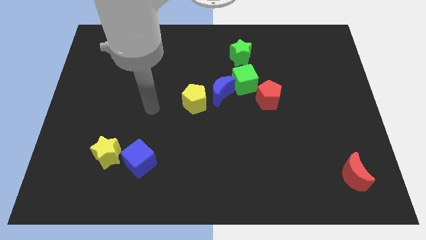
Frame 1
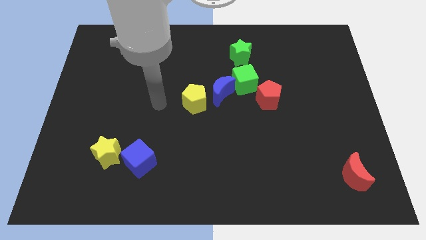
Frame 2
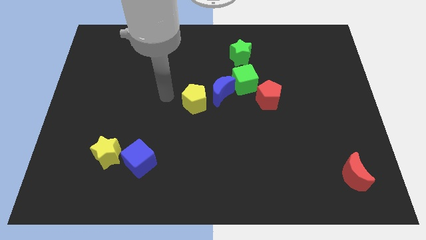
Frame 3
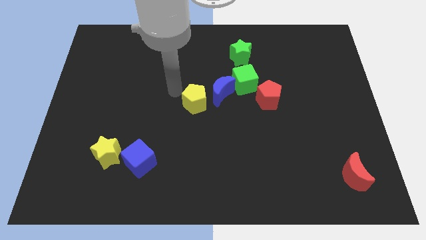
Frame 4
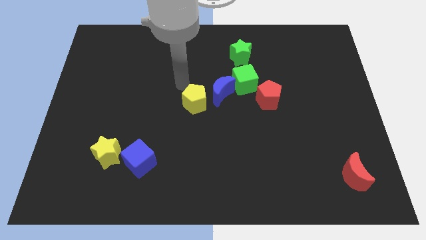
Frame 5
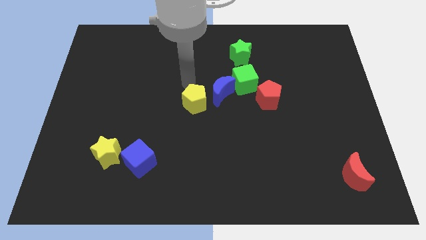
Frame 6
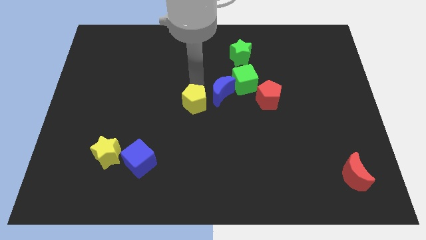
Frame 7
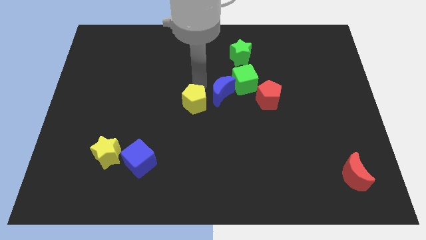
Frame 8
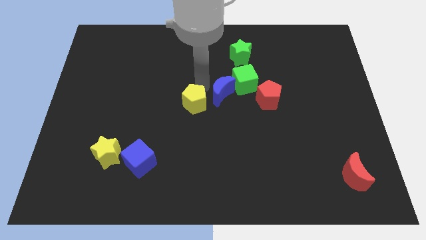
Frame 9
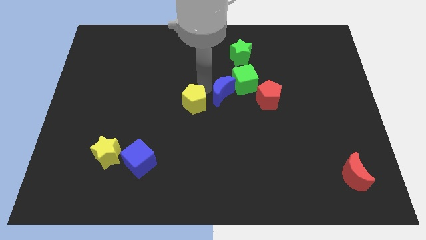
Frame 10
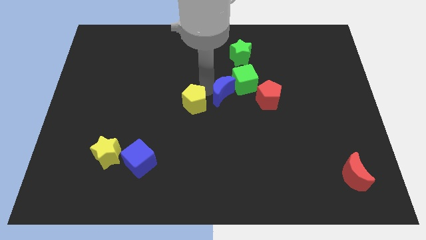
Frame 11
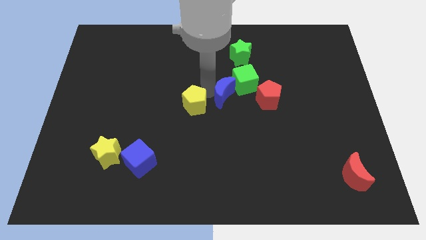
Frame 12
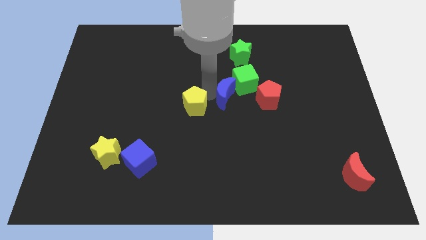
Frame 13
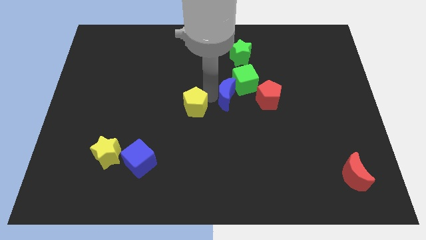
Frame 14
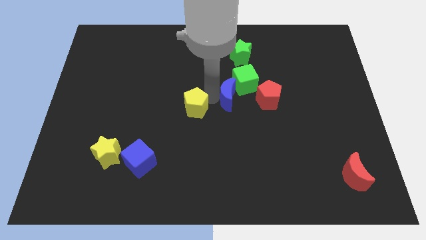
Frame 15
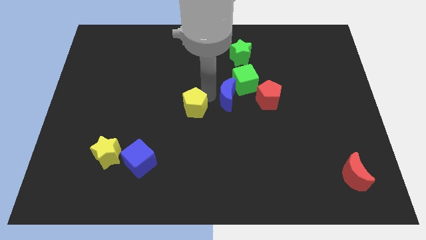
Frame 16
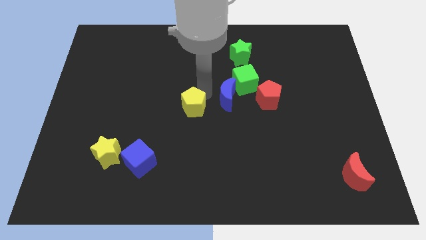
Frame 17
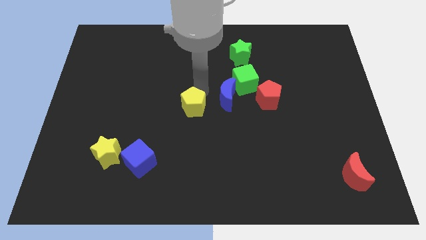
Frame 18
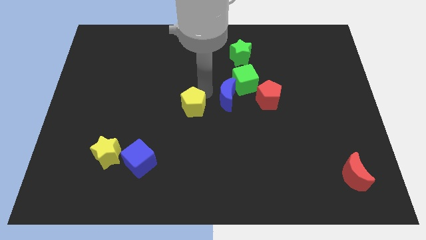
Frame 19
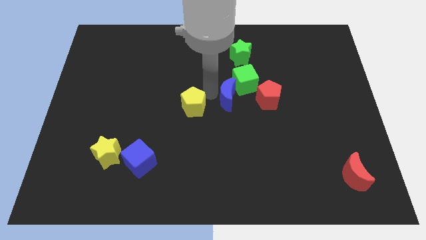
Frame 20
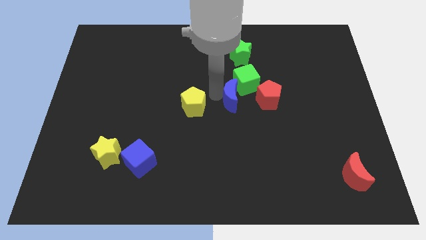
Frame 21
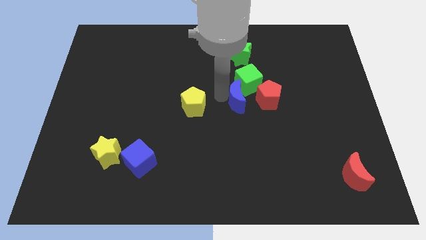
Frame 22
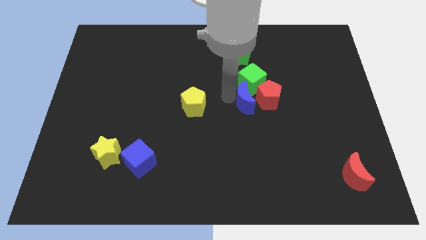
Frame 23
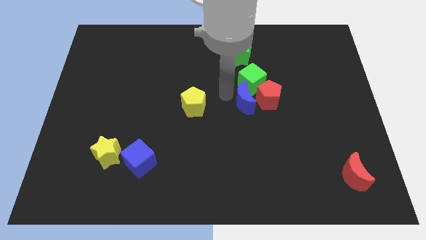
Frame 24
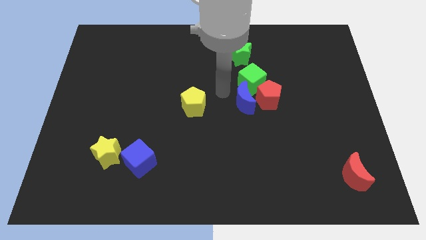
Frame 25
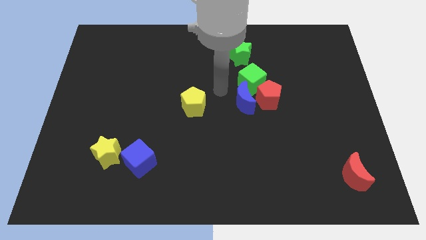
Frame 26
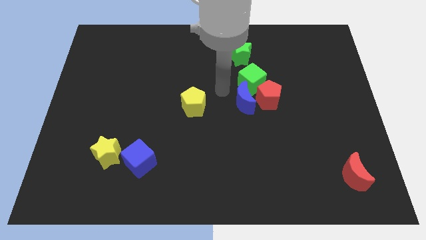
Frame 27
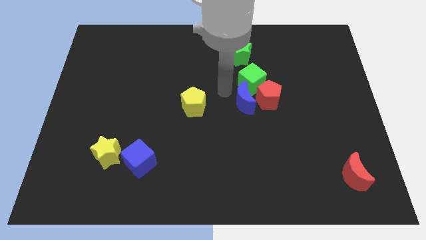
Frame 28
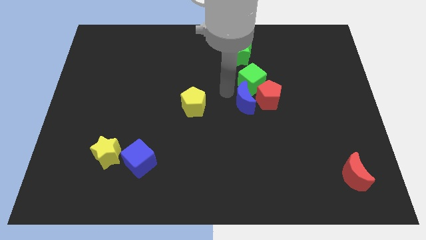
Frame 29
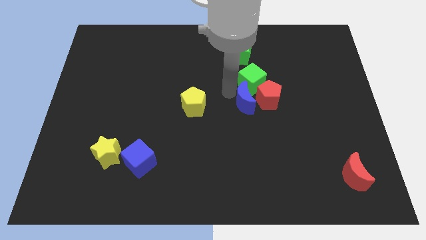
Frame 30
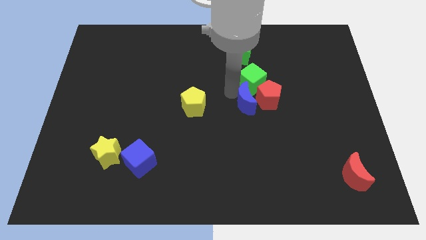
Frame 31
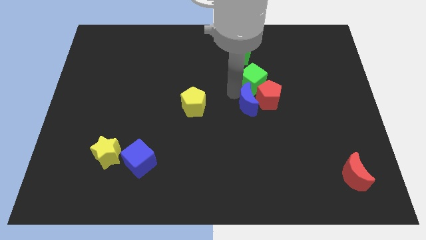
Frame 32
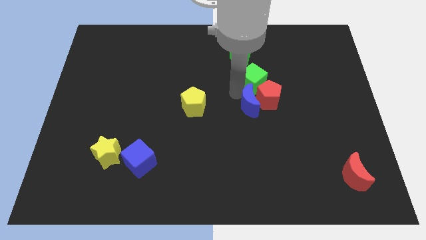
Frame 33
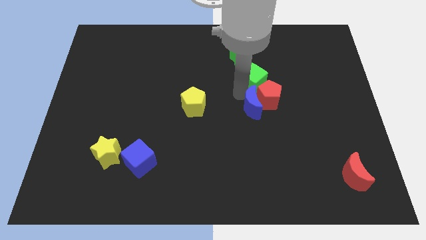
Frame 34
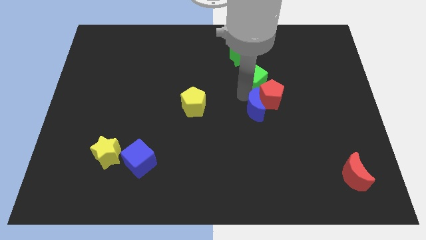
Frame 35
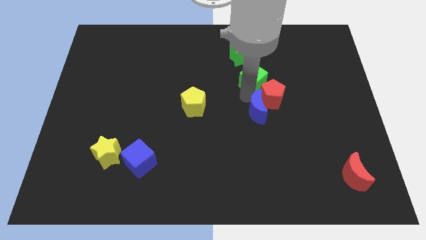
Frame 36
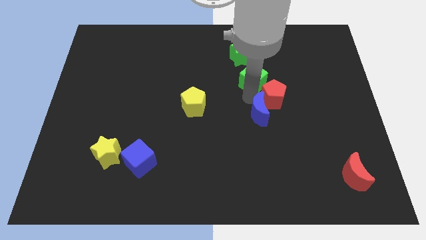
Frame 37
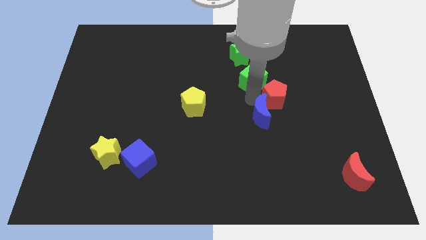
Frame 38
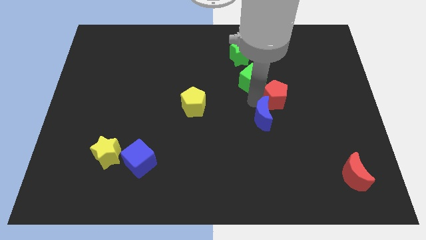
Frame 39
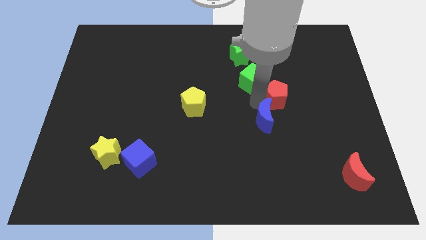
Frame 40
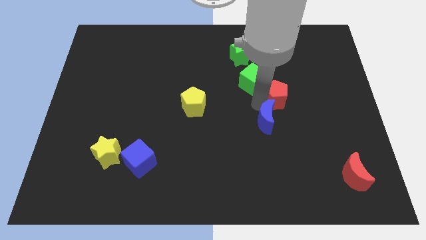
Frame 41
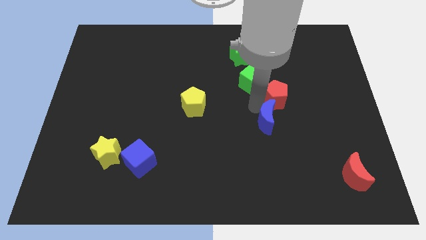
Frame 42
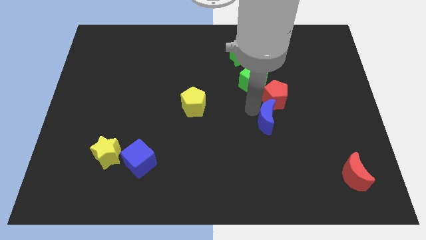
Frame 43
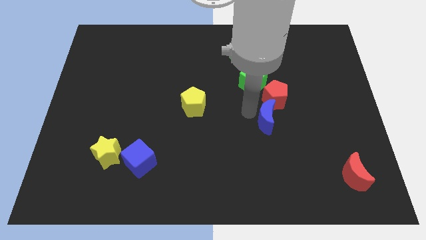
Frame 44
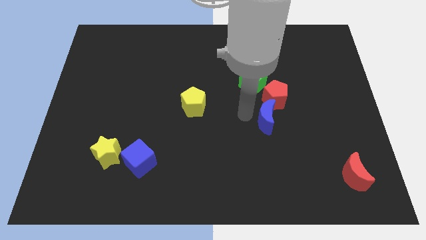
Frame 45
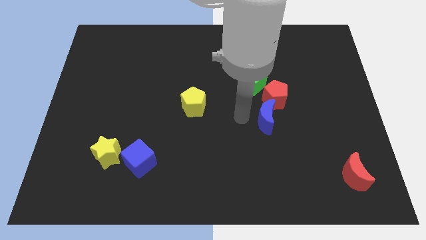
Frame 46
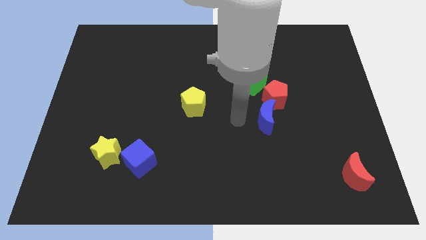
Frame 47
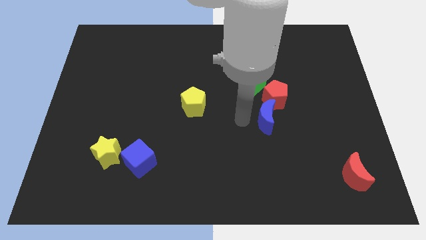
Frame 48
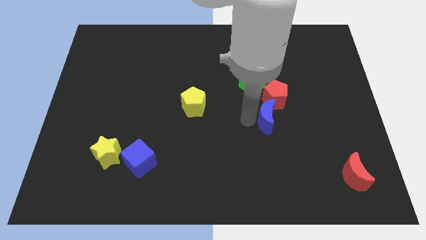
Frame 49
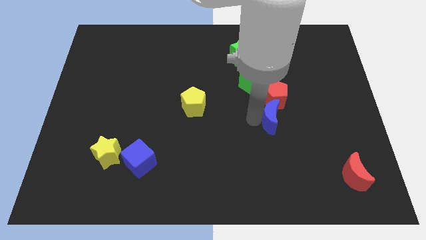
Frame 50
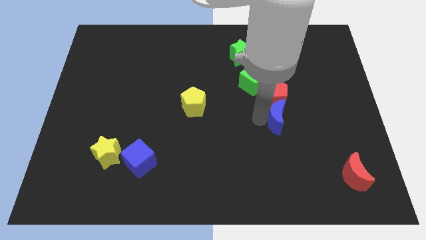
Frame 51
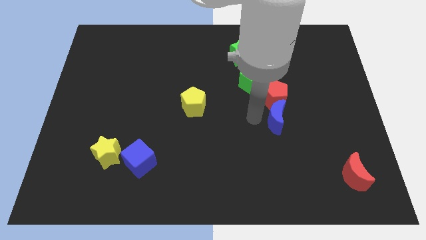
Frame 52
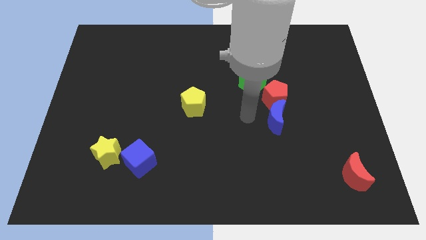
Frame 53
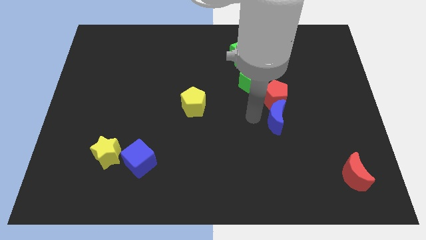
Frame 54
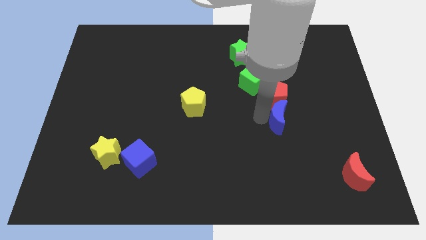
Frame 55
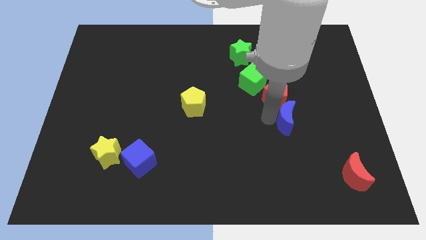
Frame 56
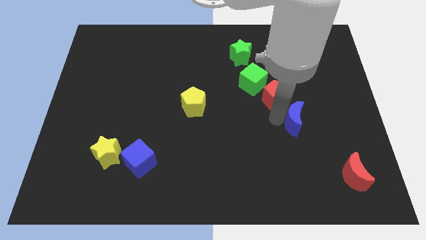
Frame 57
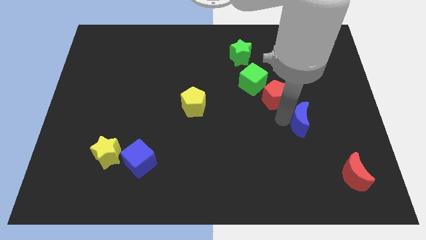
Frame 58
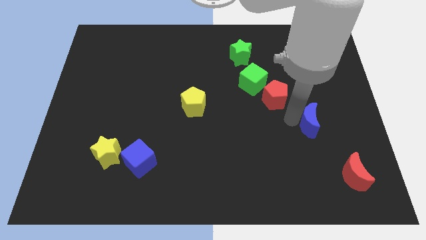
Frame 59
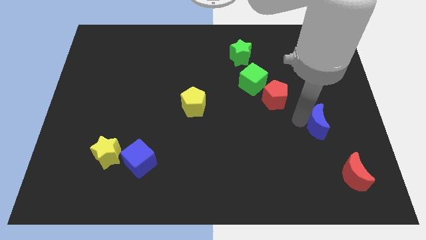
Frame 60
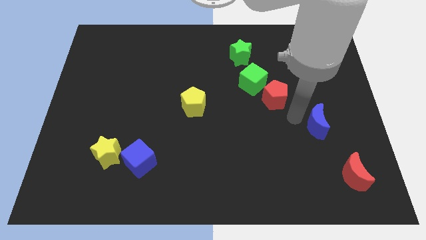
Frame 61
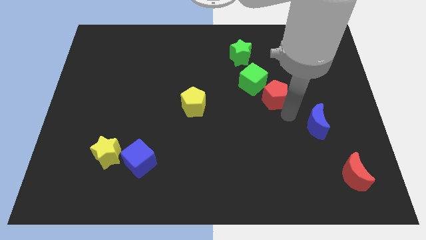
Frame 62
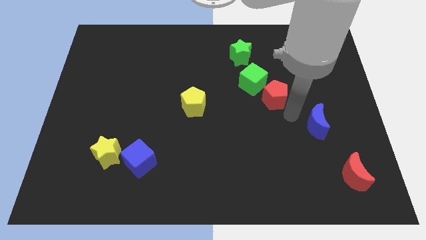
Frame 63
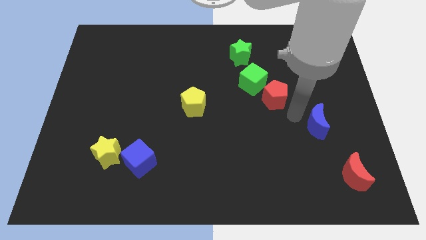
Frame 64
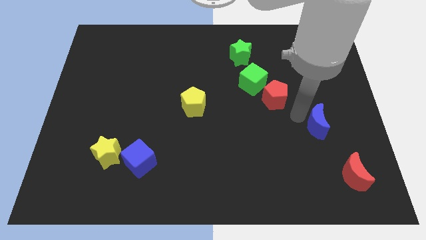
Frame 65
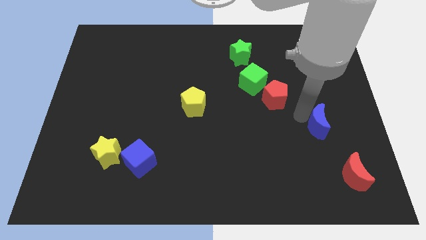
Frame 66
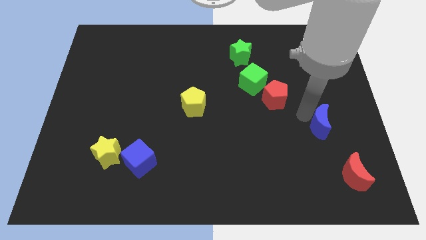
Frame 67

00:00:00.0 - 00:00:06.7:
put the blue moon above the red moon

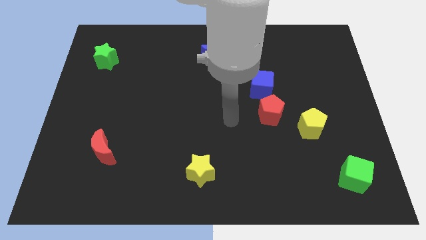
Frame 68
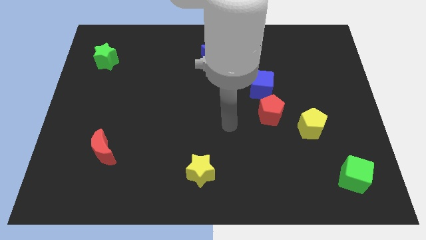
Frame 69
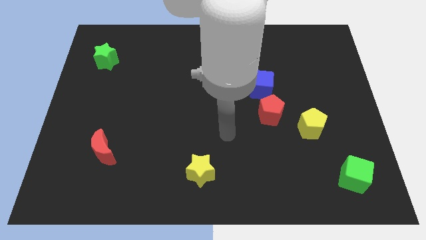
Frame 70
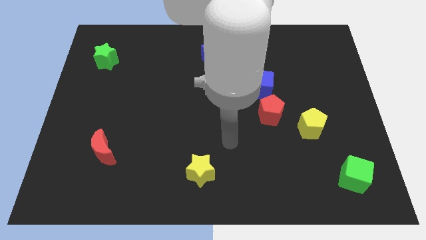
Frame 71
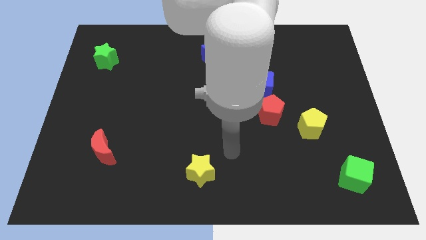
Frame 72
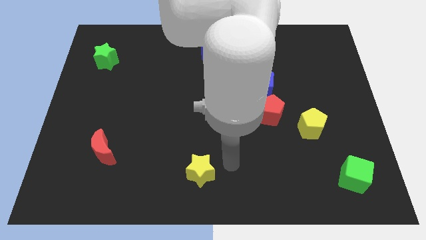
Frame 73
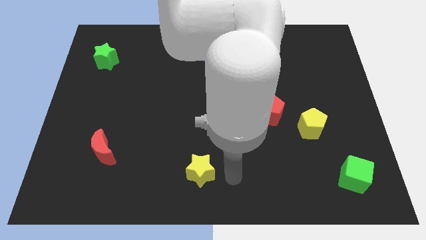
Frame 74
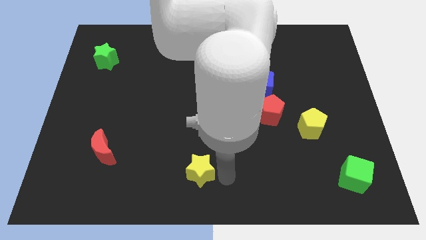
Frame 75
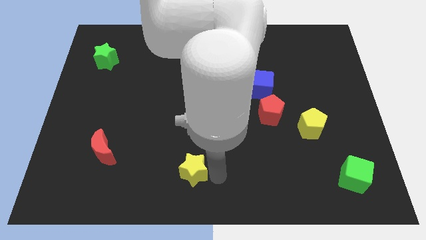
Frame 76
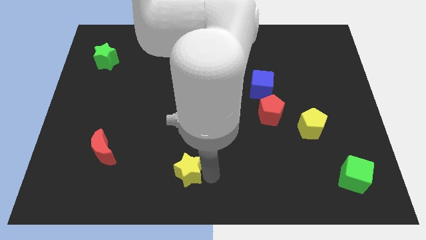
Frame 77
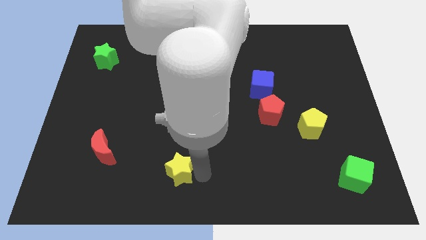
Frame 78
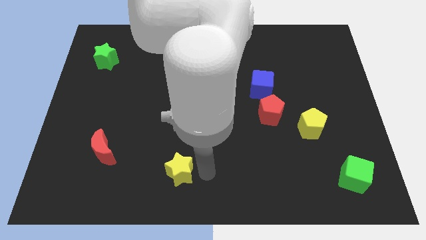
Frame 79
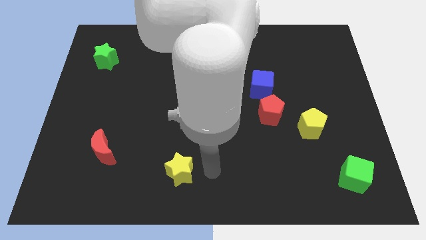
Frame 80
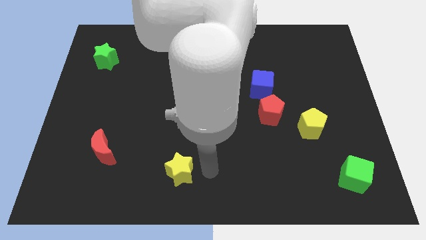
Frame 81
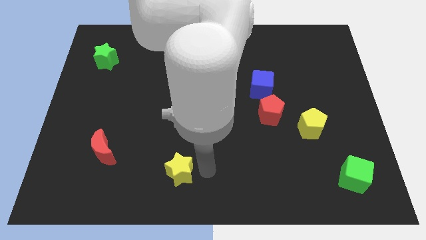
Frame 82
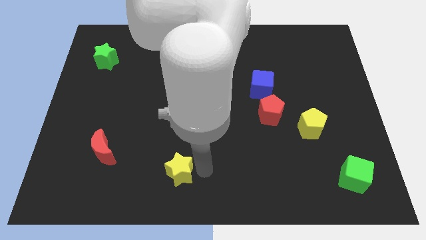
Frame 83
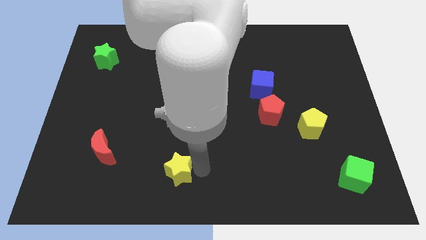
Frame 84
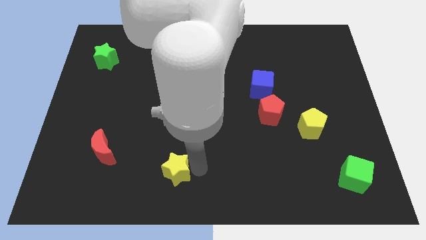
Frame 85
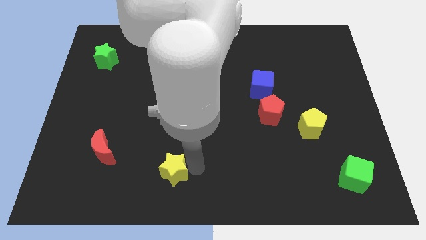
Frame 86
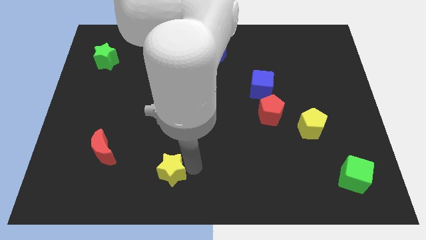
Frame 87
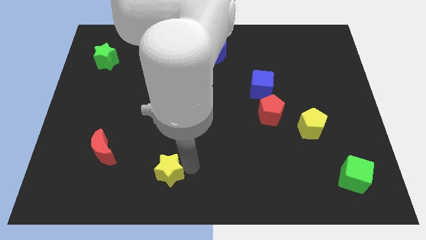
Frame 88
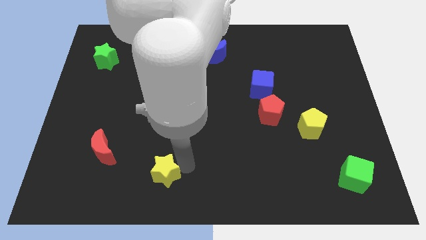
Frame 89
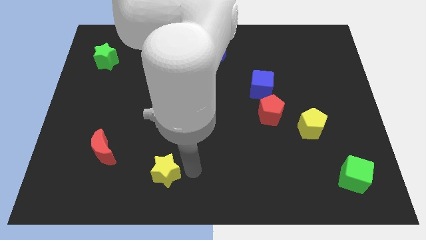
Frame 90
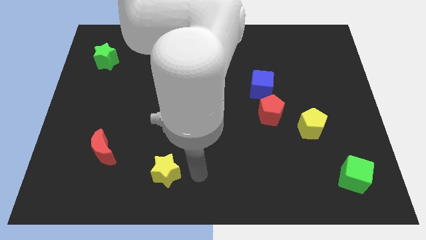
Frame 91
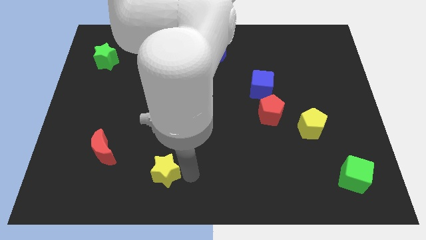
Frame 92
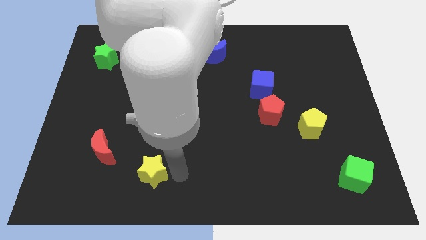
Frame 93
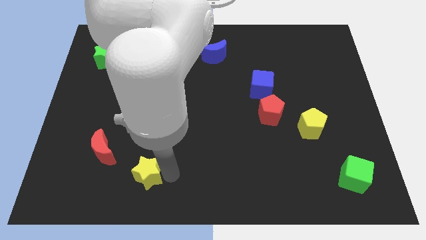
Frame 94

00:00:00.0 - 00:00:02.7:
put the yellow star to the bottom right side of the red moon
